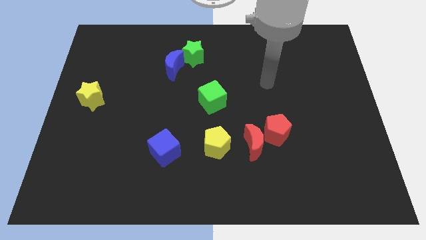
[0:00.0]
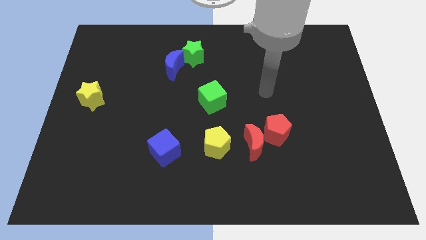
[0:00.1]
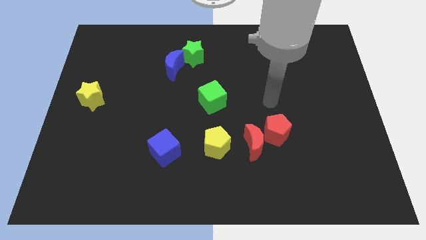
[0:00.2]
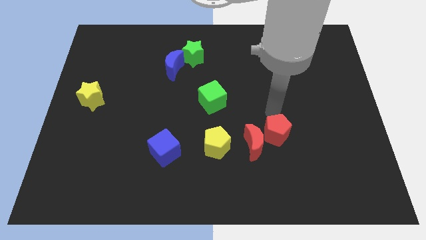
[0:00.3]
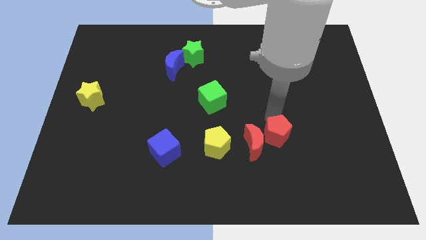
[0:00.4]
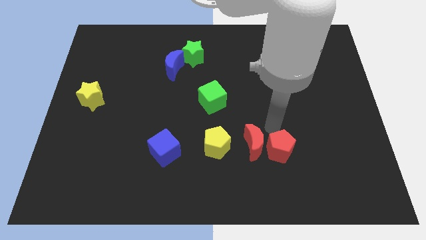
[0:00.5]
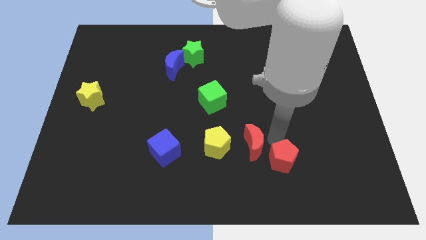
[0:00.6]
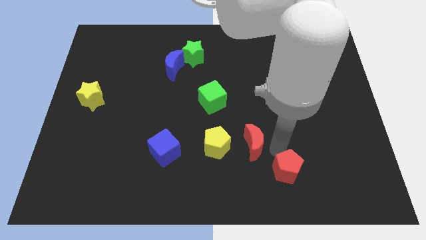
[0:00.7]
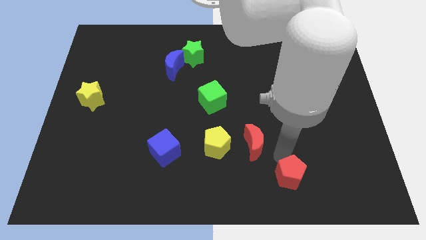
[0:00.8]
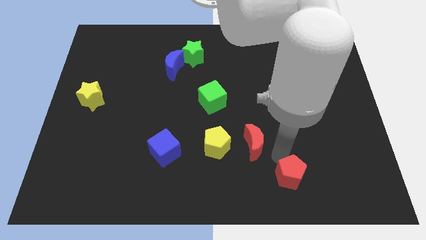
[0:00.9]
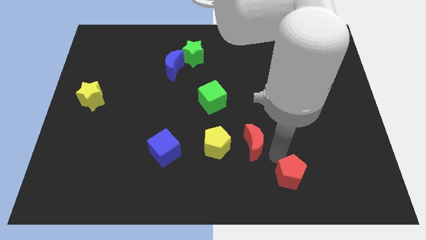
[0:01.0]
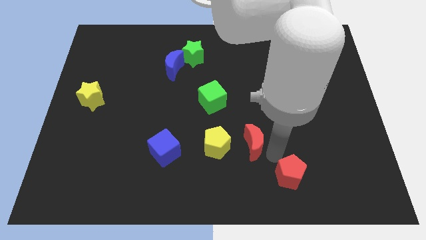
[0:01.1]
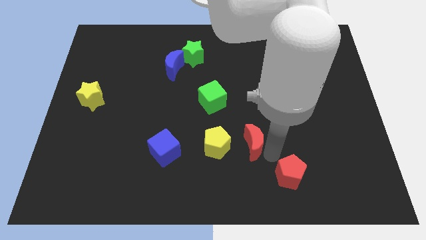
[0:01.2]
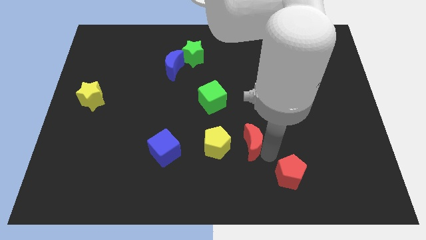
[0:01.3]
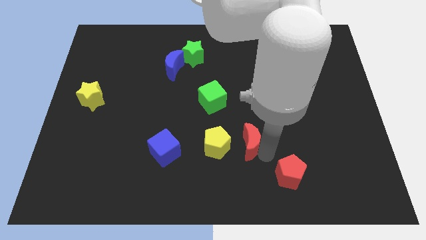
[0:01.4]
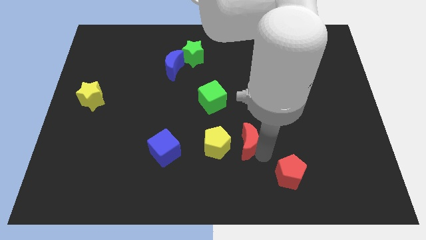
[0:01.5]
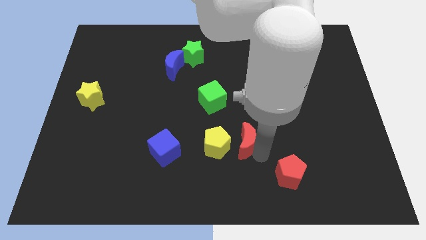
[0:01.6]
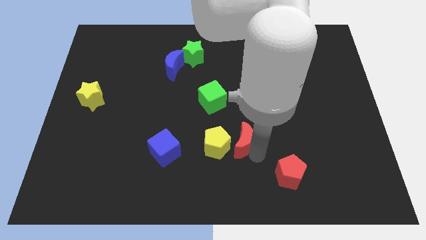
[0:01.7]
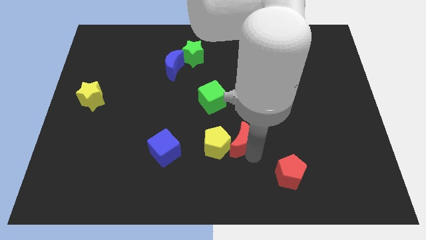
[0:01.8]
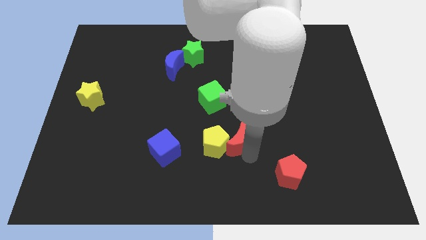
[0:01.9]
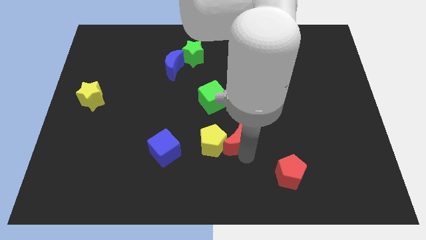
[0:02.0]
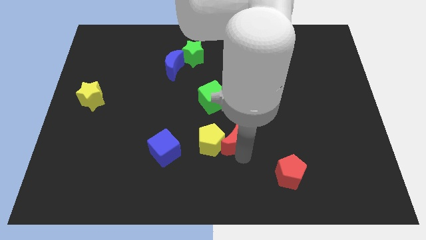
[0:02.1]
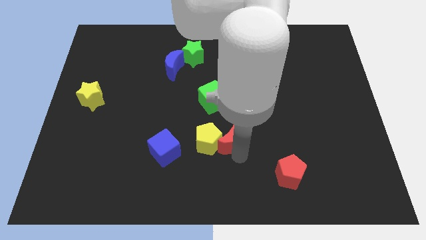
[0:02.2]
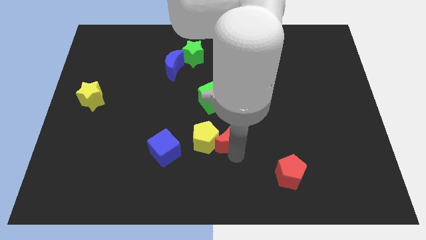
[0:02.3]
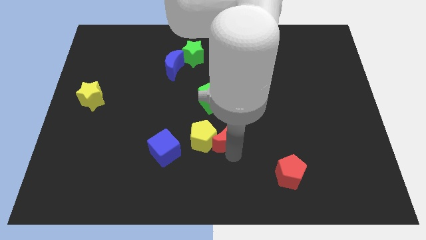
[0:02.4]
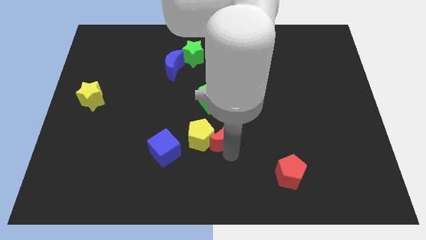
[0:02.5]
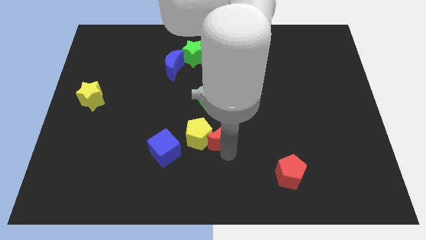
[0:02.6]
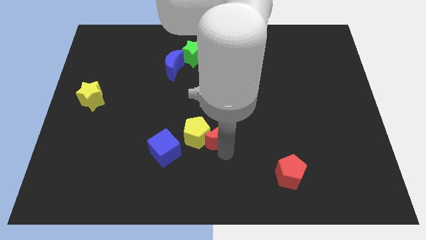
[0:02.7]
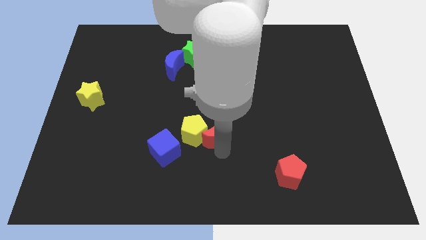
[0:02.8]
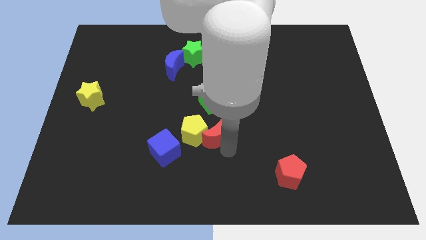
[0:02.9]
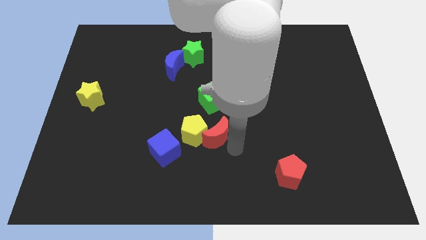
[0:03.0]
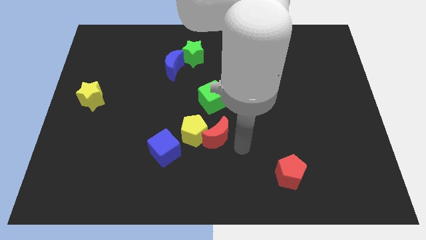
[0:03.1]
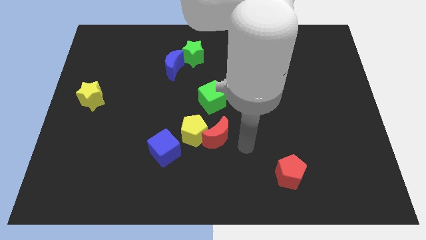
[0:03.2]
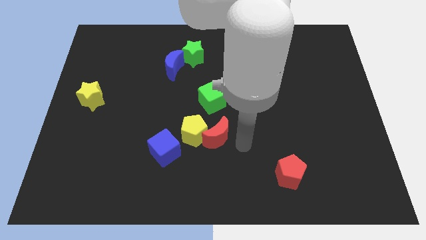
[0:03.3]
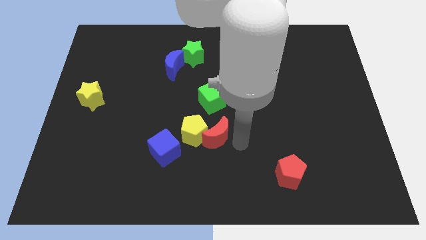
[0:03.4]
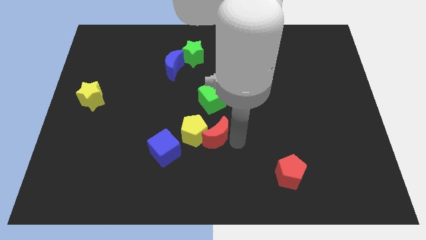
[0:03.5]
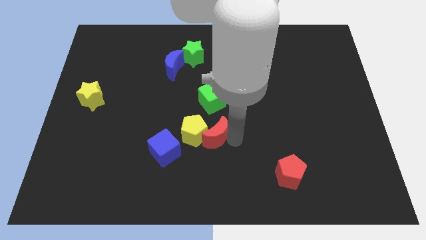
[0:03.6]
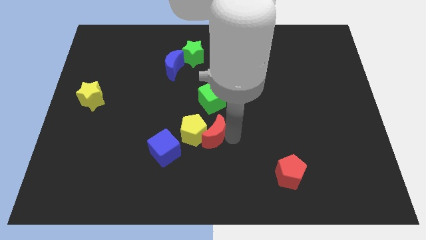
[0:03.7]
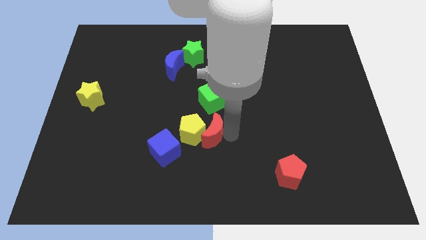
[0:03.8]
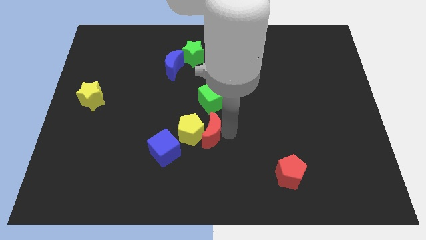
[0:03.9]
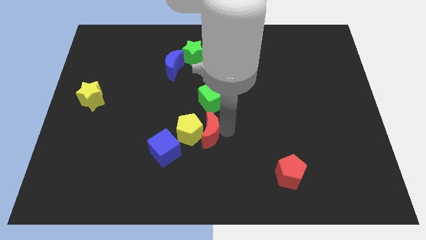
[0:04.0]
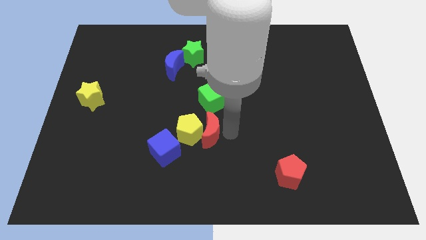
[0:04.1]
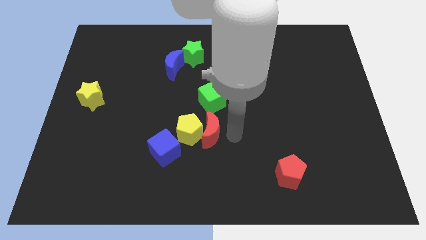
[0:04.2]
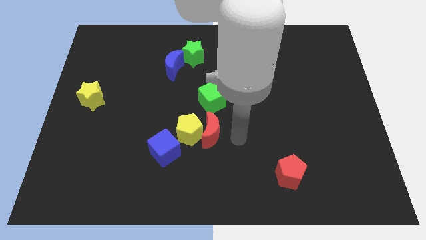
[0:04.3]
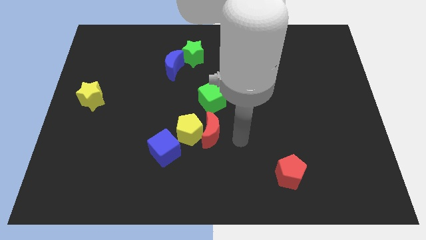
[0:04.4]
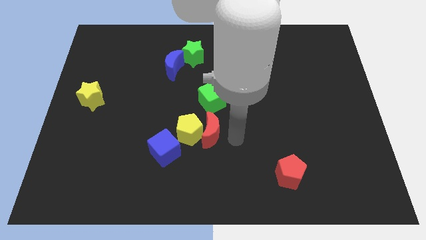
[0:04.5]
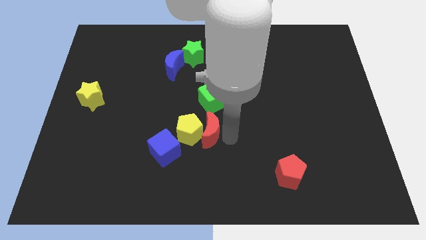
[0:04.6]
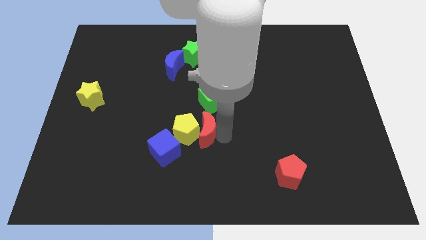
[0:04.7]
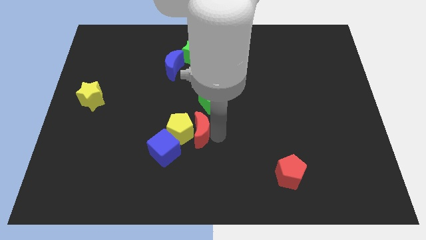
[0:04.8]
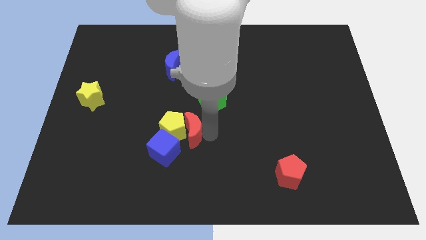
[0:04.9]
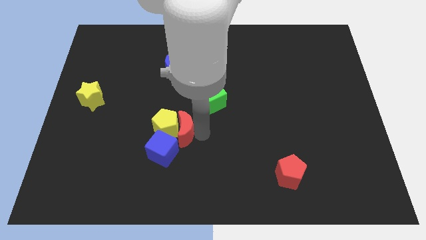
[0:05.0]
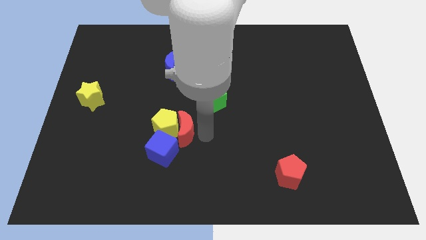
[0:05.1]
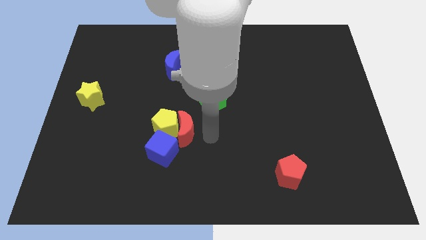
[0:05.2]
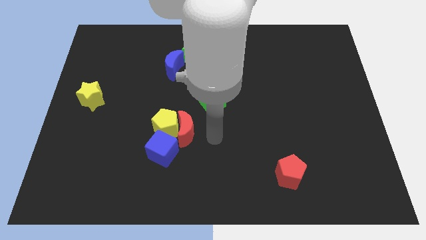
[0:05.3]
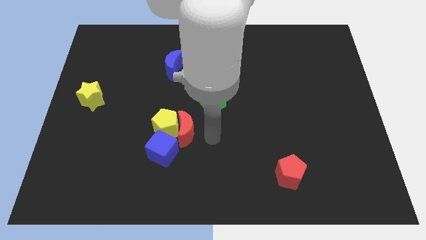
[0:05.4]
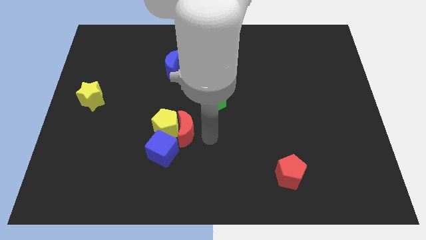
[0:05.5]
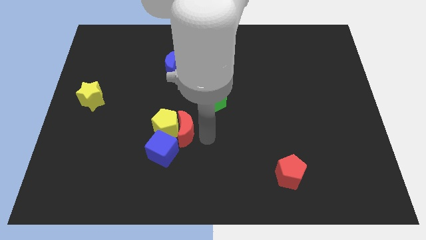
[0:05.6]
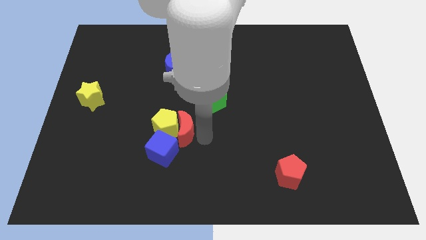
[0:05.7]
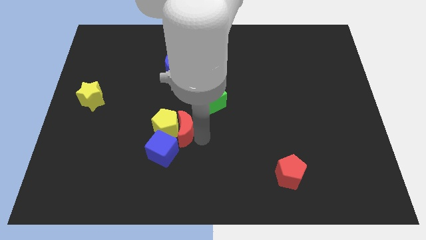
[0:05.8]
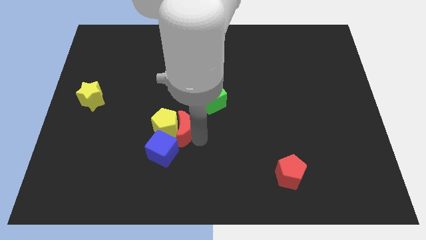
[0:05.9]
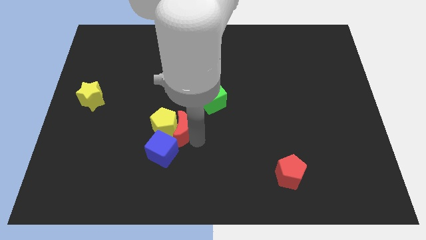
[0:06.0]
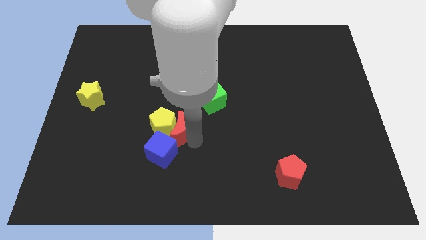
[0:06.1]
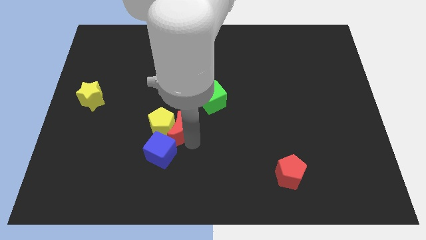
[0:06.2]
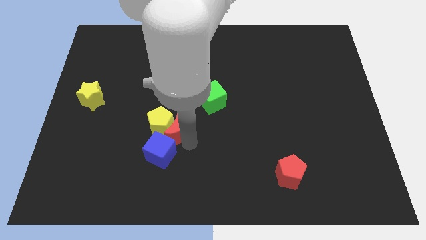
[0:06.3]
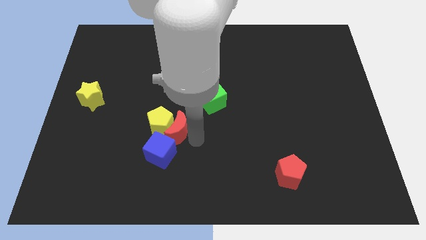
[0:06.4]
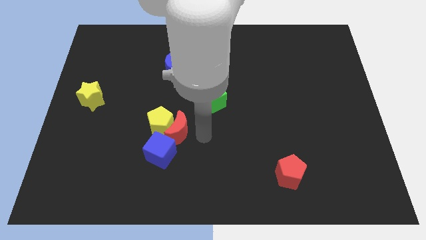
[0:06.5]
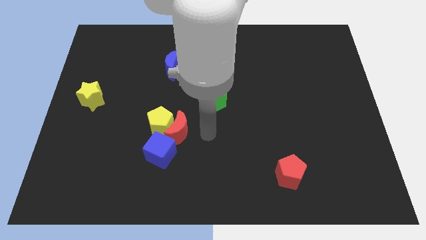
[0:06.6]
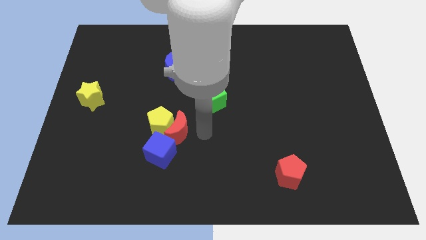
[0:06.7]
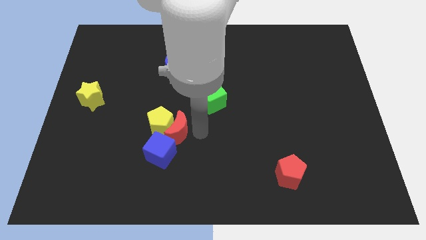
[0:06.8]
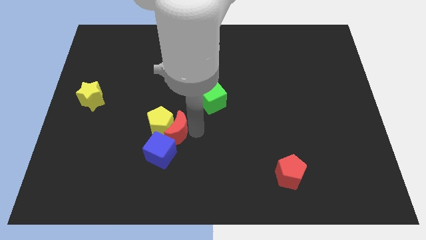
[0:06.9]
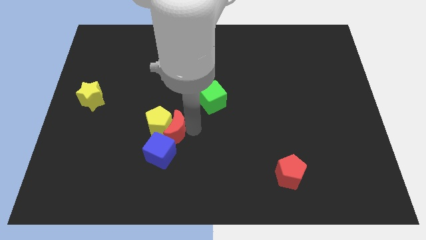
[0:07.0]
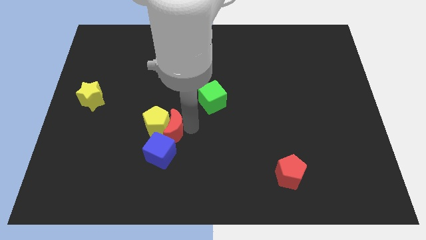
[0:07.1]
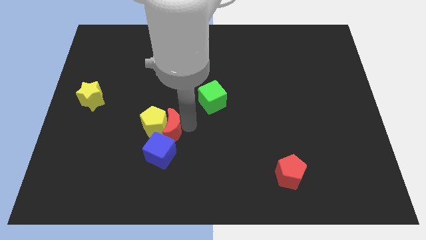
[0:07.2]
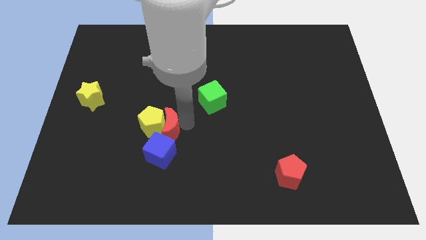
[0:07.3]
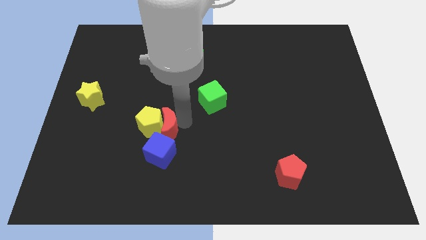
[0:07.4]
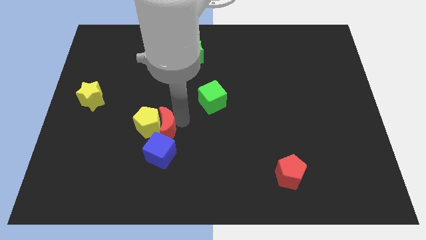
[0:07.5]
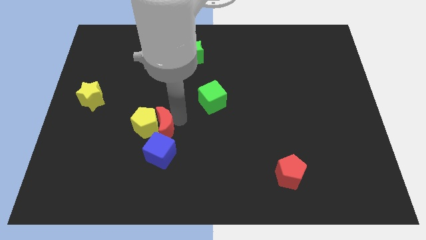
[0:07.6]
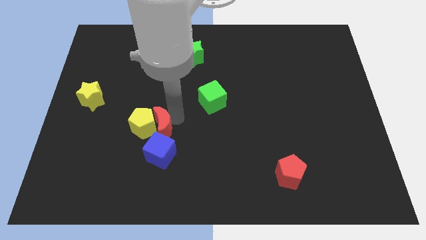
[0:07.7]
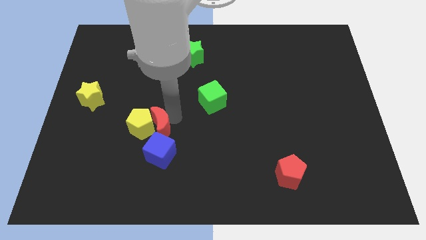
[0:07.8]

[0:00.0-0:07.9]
push the red moon left
